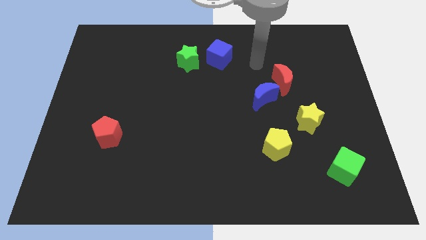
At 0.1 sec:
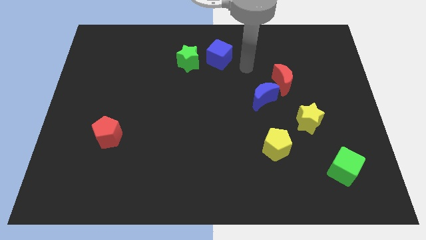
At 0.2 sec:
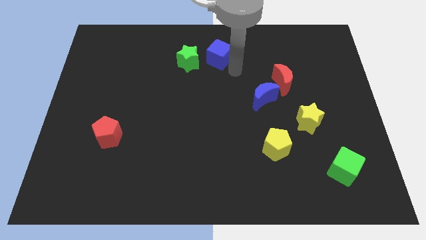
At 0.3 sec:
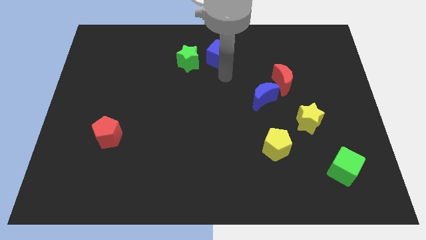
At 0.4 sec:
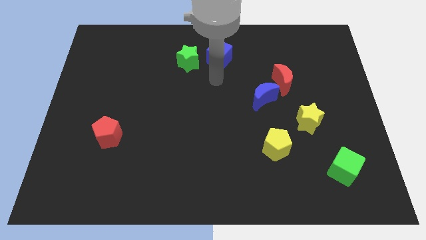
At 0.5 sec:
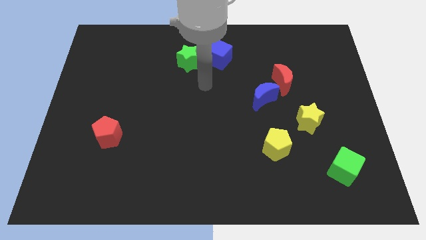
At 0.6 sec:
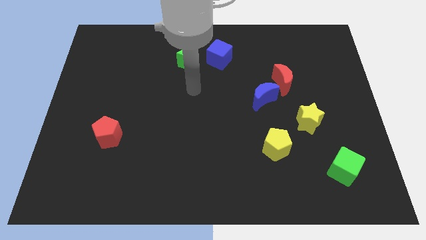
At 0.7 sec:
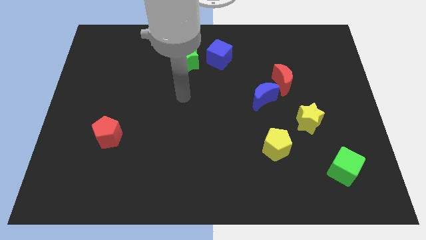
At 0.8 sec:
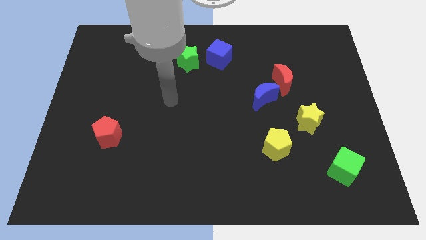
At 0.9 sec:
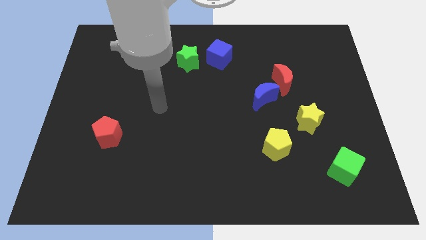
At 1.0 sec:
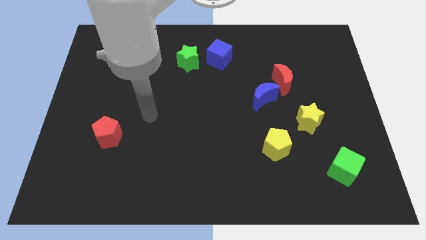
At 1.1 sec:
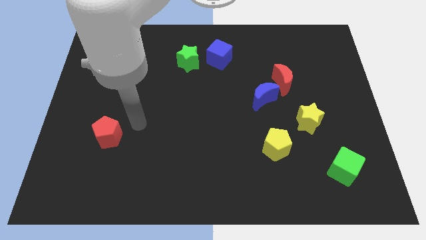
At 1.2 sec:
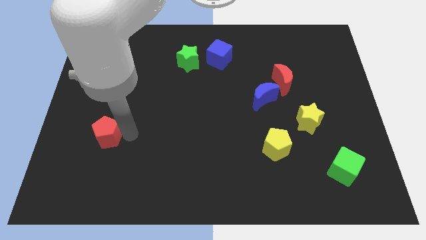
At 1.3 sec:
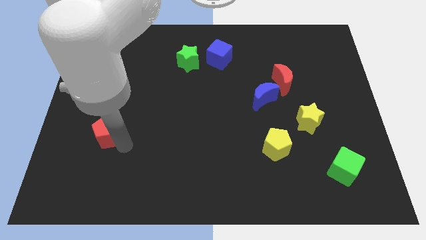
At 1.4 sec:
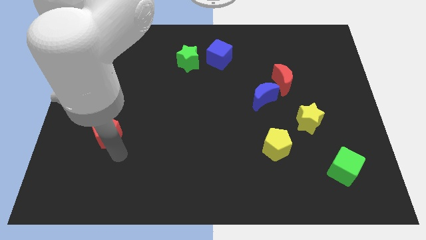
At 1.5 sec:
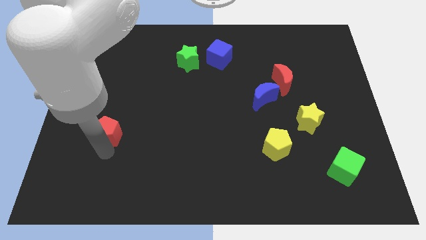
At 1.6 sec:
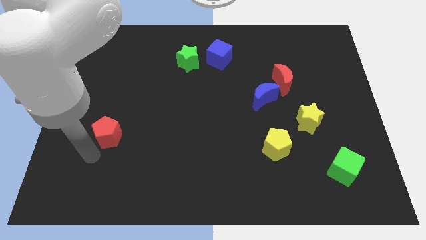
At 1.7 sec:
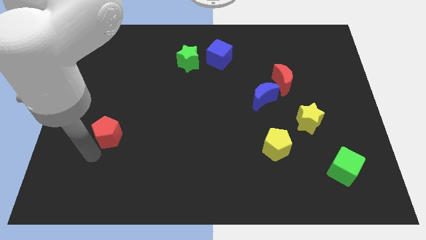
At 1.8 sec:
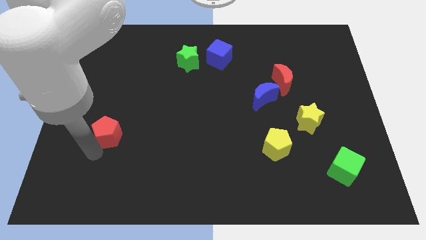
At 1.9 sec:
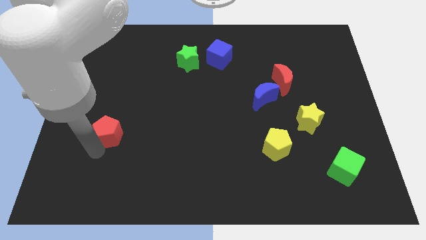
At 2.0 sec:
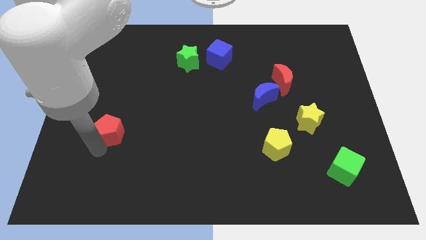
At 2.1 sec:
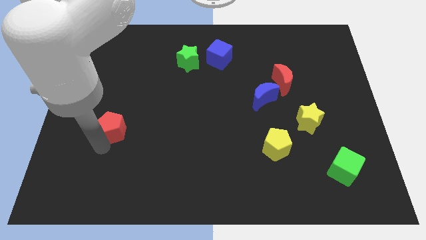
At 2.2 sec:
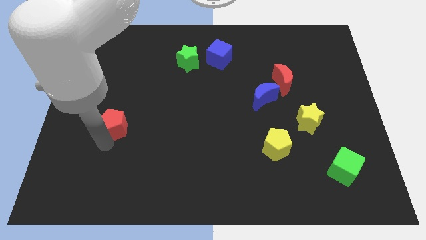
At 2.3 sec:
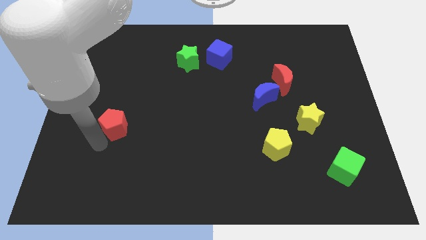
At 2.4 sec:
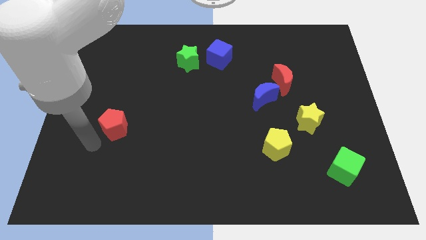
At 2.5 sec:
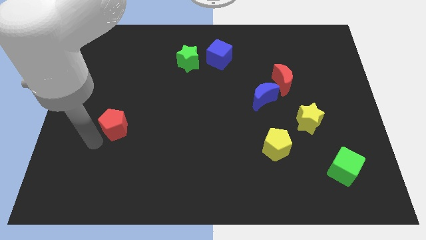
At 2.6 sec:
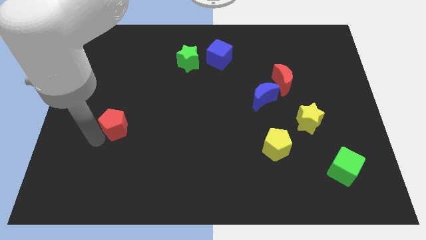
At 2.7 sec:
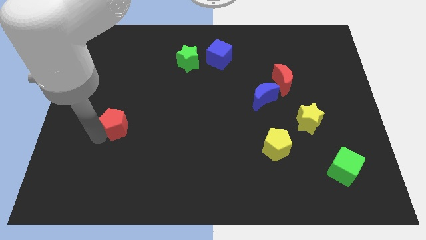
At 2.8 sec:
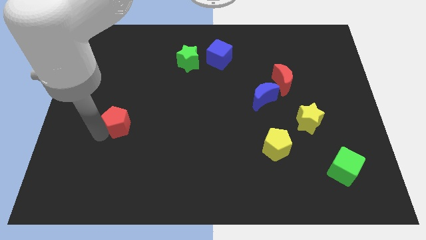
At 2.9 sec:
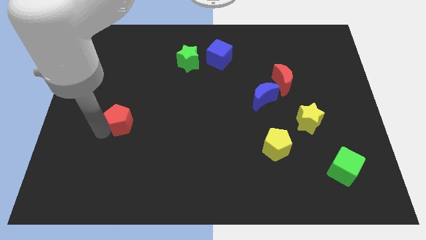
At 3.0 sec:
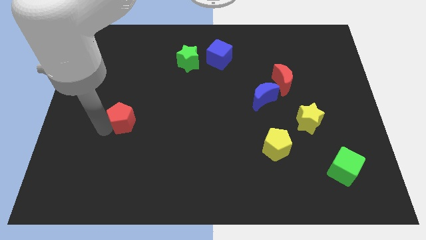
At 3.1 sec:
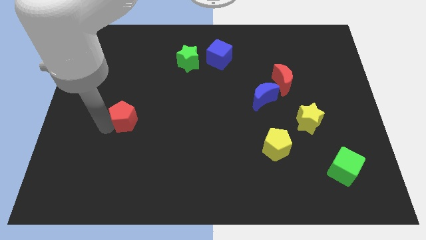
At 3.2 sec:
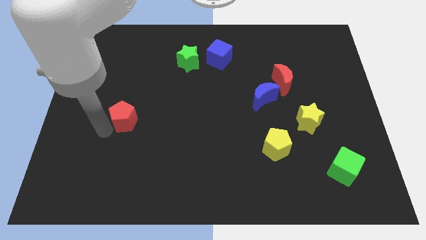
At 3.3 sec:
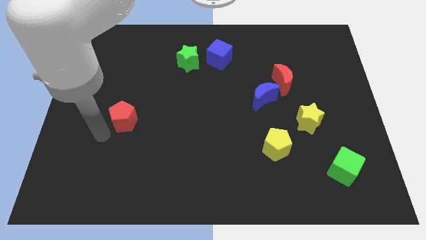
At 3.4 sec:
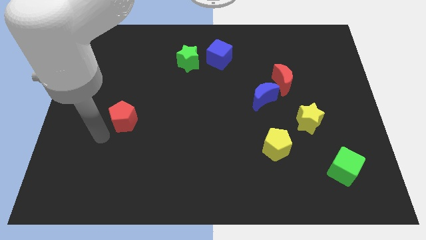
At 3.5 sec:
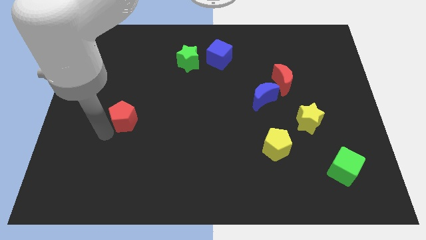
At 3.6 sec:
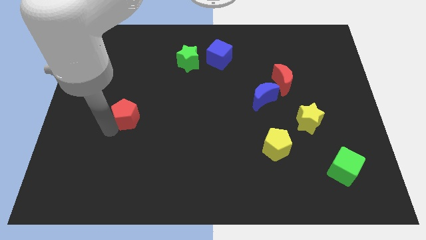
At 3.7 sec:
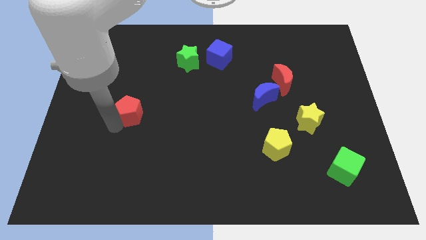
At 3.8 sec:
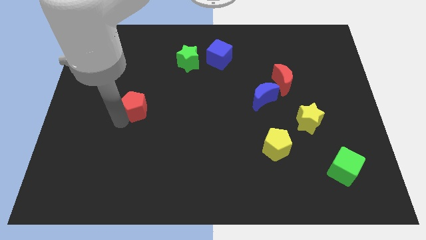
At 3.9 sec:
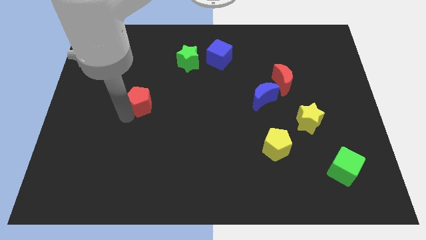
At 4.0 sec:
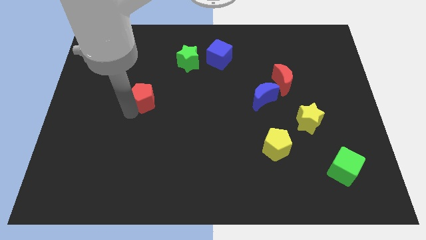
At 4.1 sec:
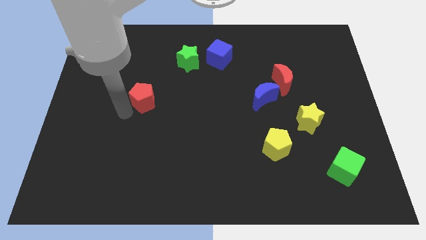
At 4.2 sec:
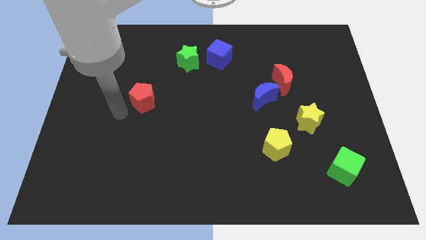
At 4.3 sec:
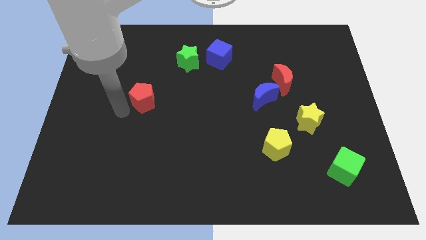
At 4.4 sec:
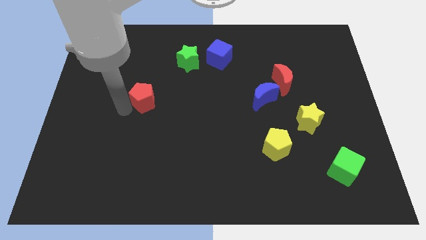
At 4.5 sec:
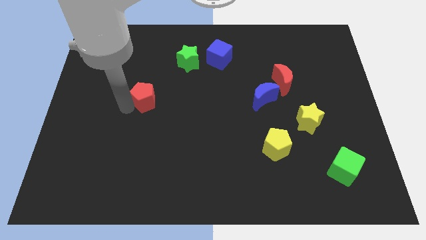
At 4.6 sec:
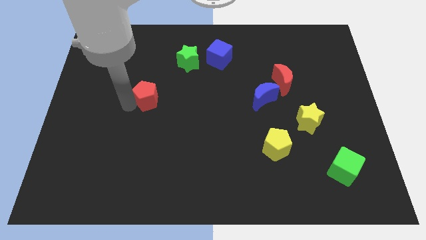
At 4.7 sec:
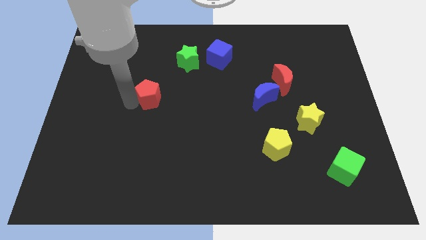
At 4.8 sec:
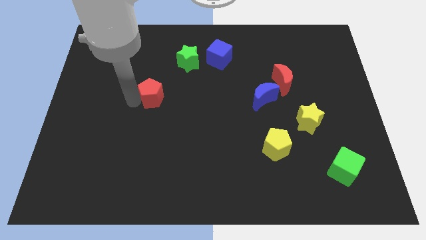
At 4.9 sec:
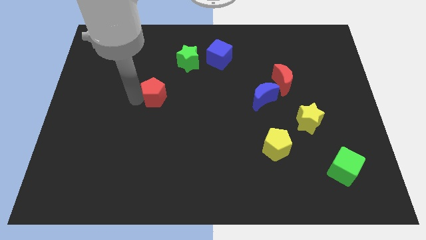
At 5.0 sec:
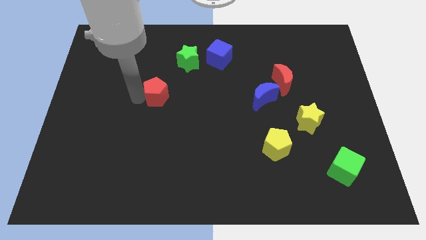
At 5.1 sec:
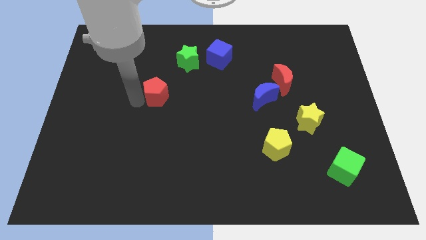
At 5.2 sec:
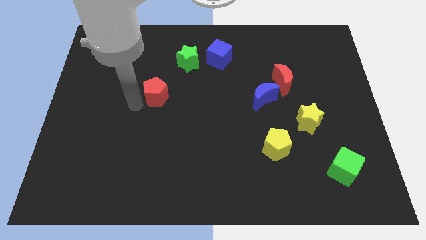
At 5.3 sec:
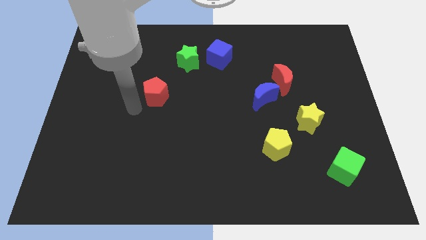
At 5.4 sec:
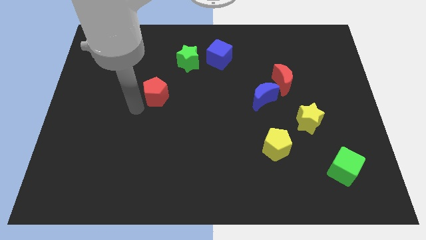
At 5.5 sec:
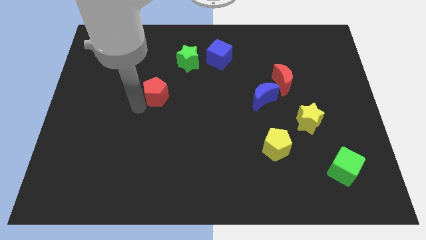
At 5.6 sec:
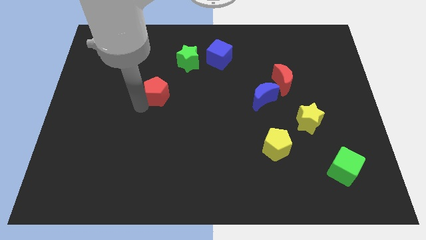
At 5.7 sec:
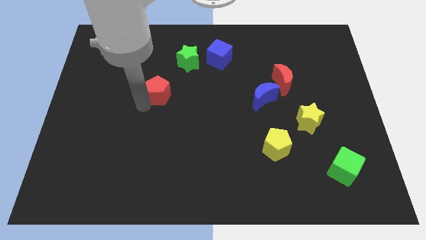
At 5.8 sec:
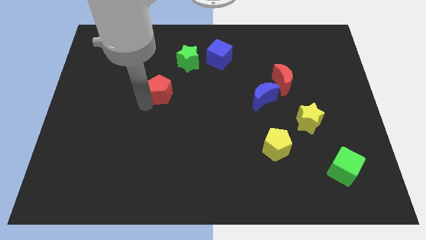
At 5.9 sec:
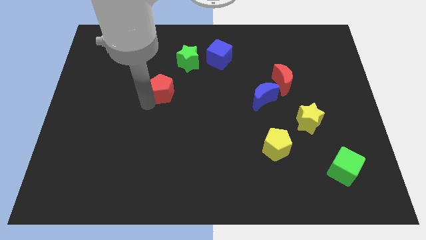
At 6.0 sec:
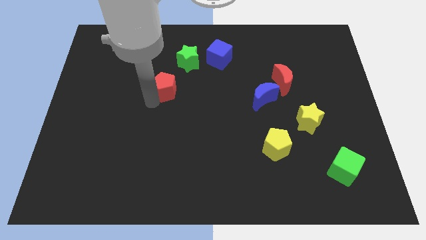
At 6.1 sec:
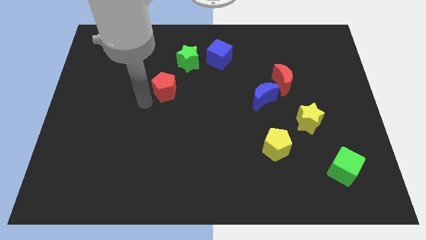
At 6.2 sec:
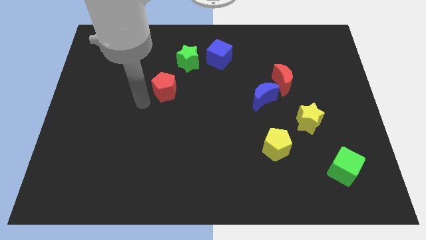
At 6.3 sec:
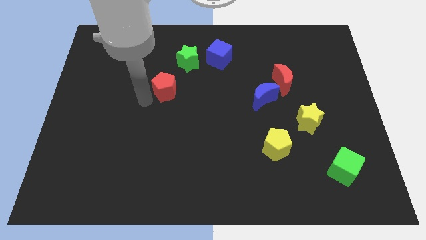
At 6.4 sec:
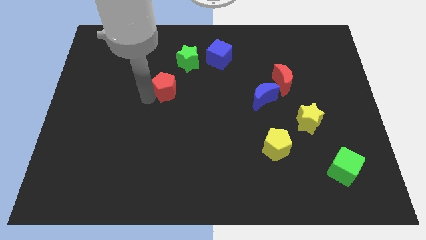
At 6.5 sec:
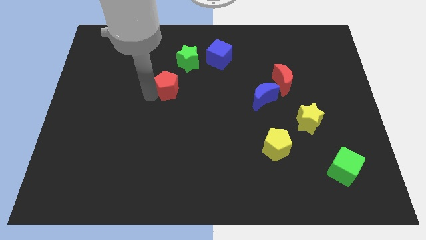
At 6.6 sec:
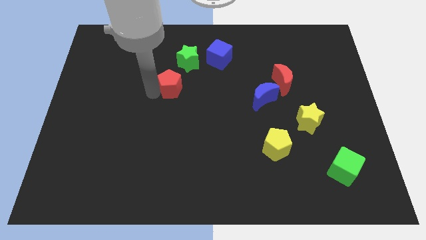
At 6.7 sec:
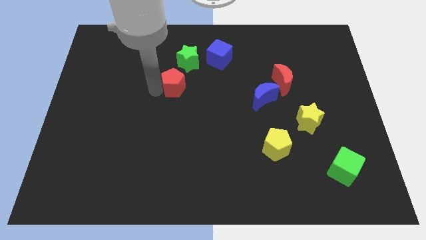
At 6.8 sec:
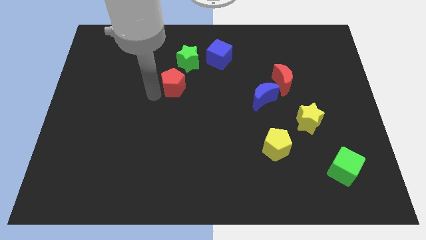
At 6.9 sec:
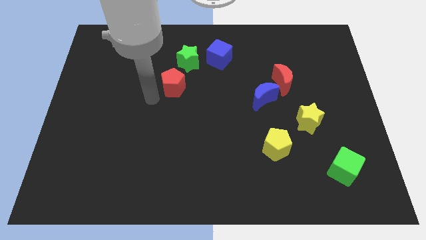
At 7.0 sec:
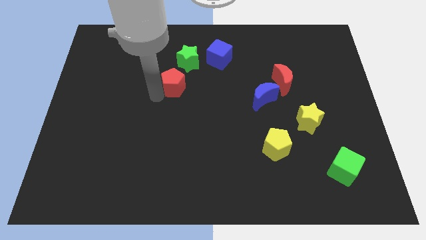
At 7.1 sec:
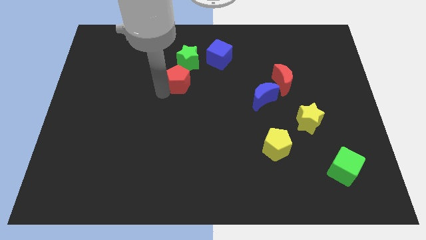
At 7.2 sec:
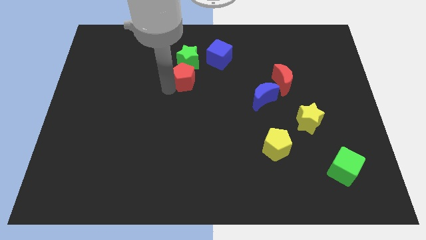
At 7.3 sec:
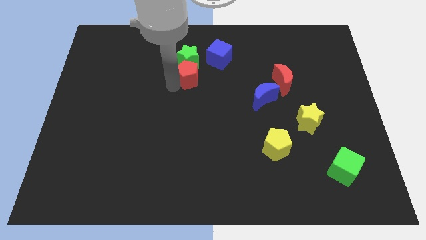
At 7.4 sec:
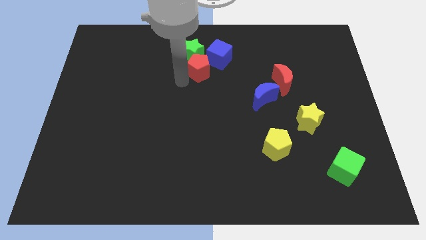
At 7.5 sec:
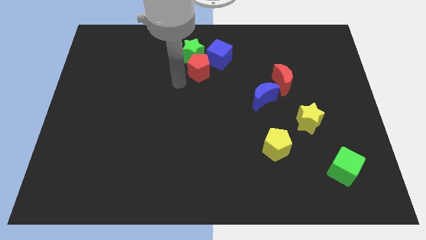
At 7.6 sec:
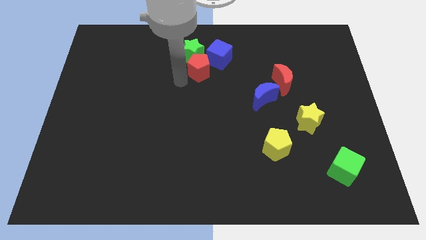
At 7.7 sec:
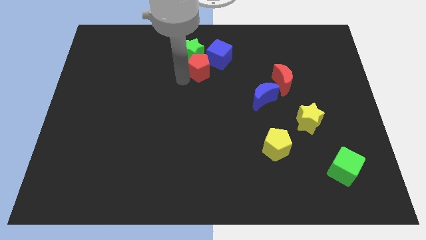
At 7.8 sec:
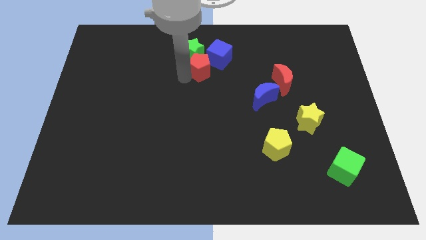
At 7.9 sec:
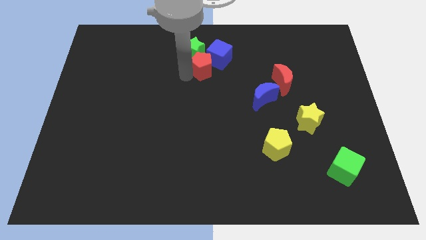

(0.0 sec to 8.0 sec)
slide the red pentagon to the blue cube
